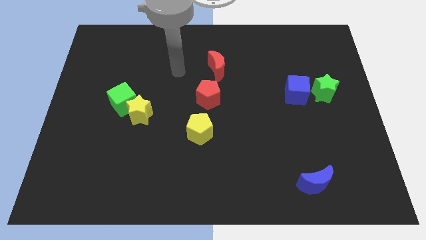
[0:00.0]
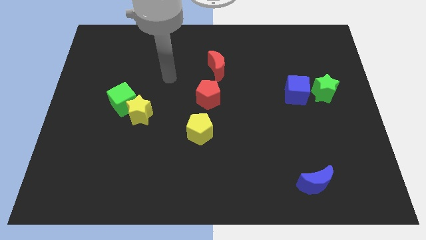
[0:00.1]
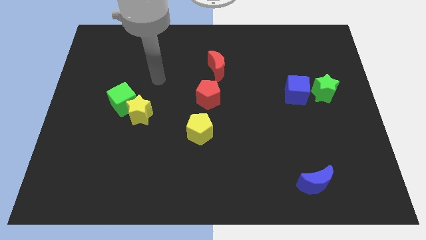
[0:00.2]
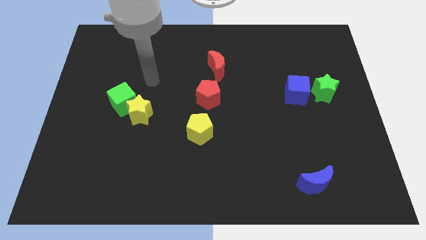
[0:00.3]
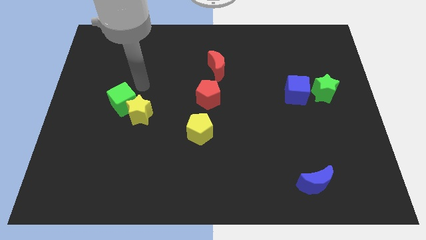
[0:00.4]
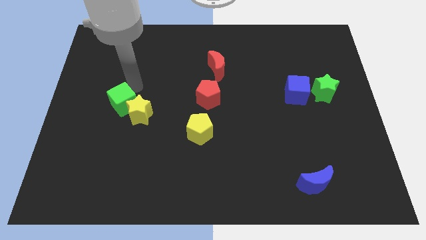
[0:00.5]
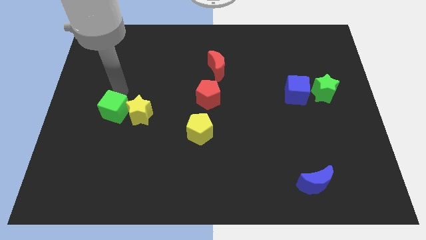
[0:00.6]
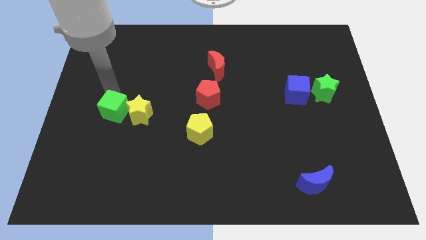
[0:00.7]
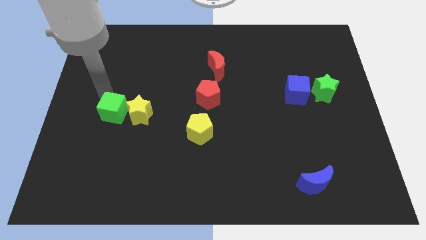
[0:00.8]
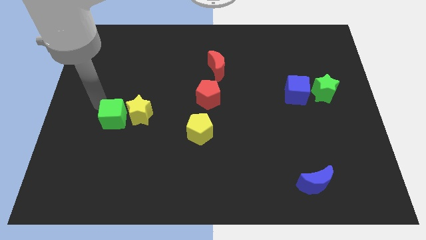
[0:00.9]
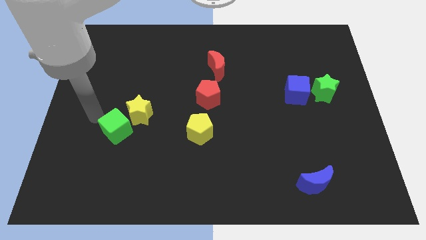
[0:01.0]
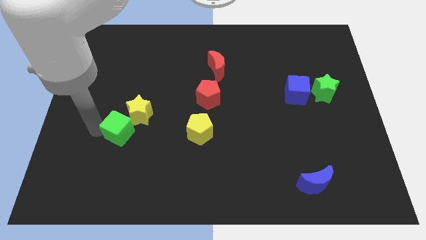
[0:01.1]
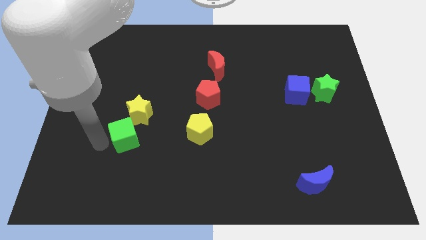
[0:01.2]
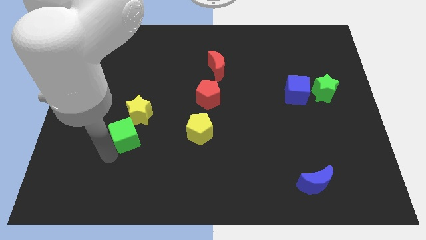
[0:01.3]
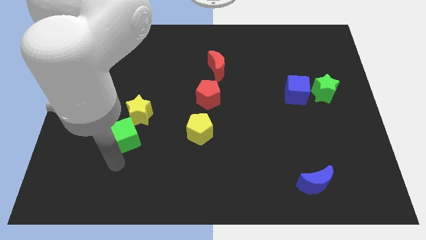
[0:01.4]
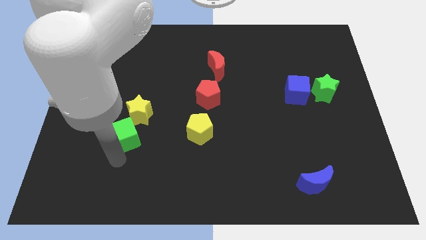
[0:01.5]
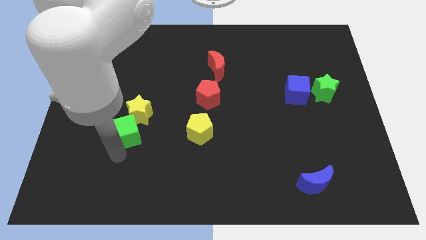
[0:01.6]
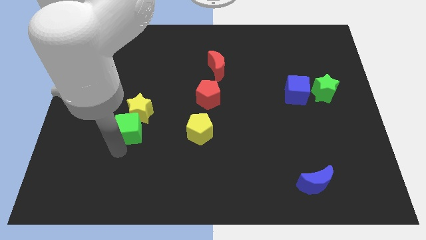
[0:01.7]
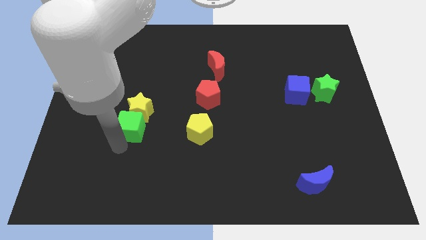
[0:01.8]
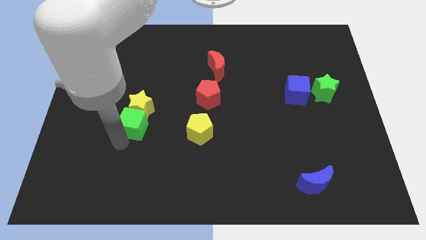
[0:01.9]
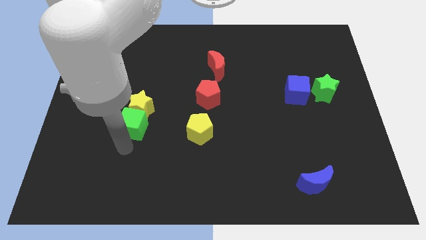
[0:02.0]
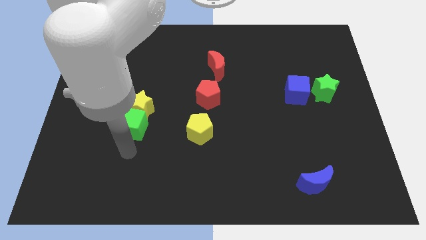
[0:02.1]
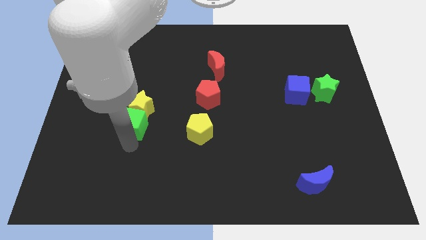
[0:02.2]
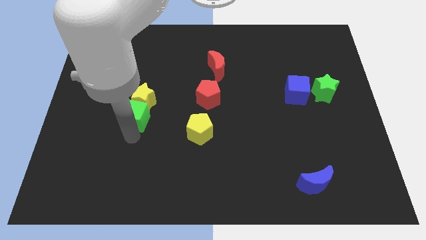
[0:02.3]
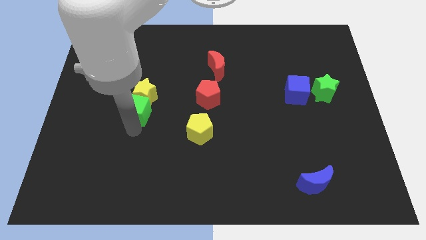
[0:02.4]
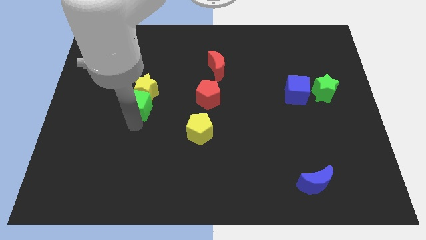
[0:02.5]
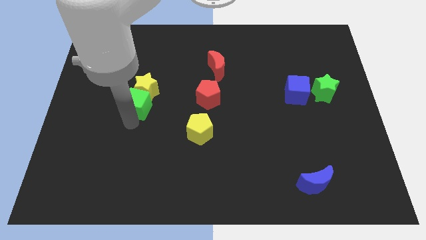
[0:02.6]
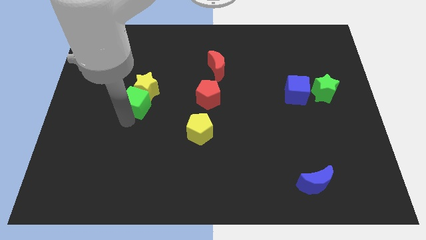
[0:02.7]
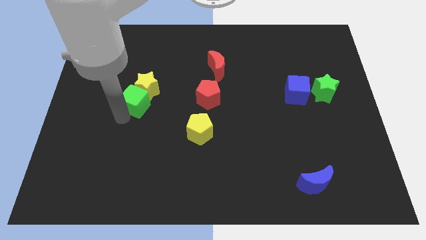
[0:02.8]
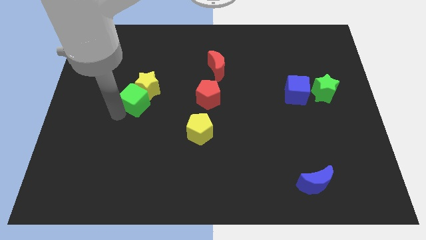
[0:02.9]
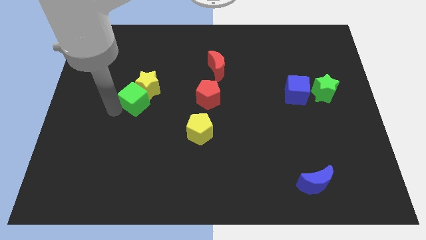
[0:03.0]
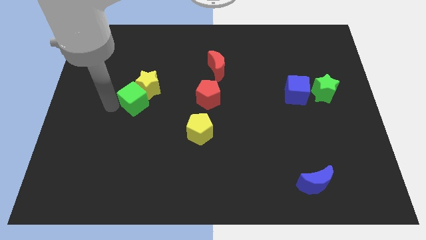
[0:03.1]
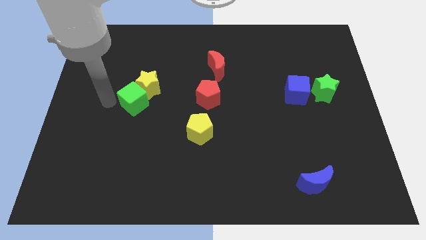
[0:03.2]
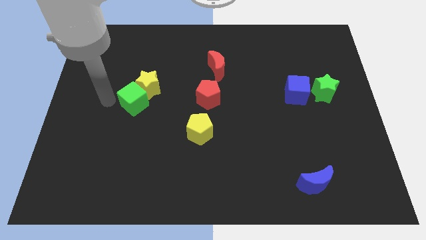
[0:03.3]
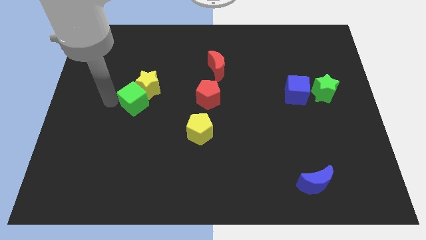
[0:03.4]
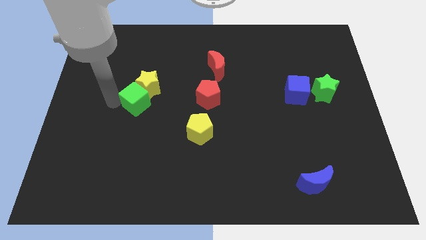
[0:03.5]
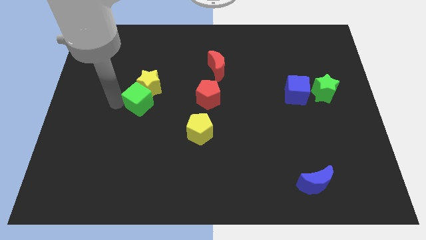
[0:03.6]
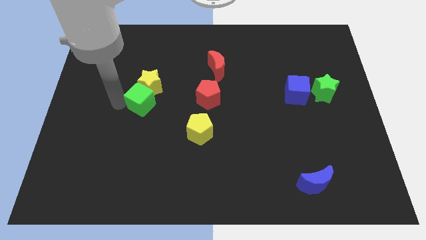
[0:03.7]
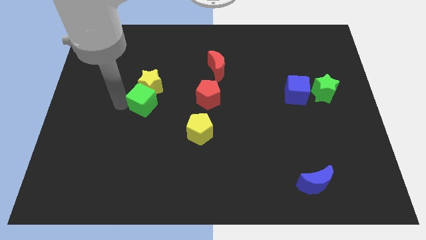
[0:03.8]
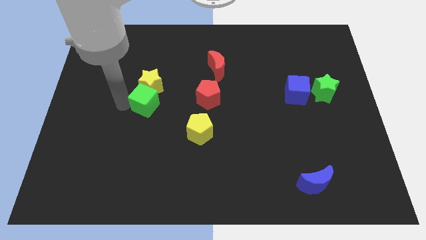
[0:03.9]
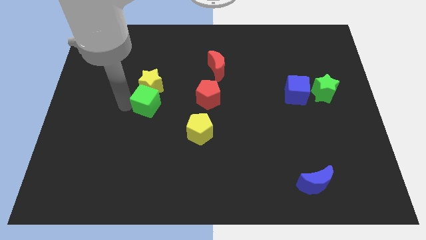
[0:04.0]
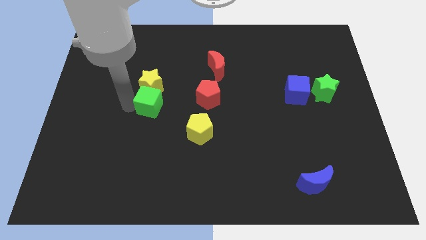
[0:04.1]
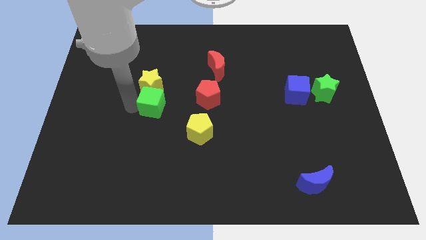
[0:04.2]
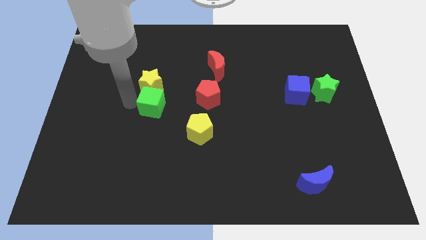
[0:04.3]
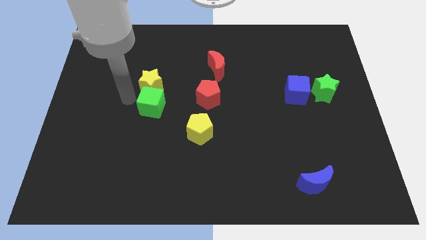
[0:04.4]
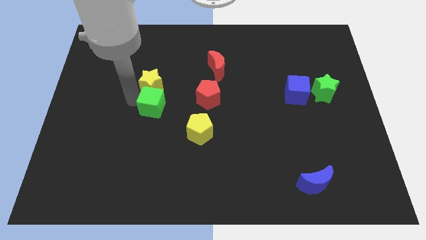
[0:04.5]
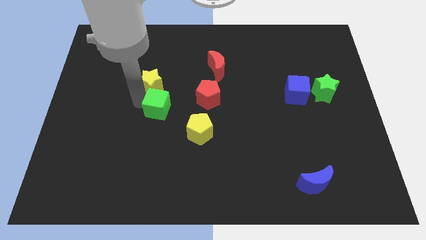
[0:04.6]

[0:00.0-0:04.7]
push the green cube diagonally up and to the left of the yellow pentagon

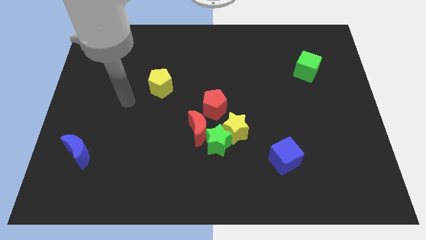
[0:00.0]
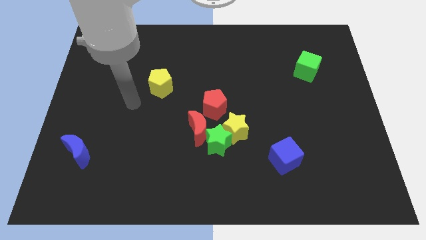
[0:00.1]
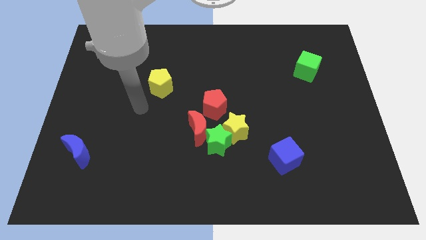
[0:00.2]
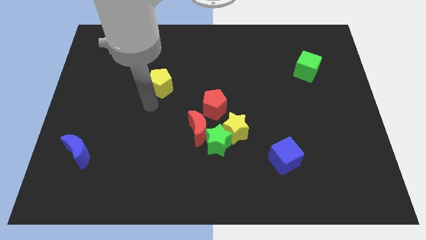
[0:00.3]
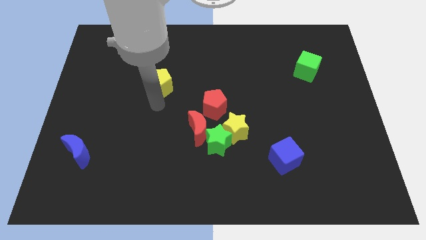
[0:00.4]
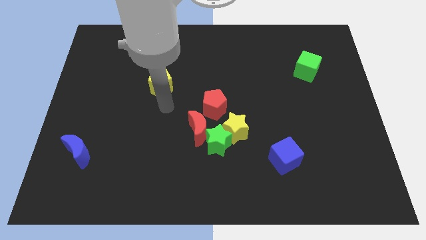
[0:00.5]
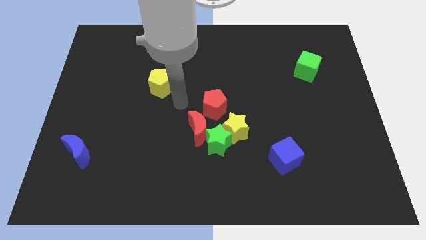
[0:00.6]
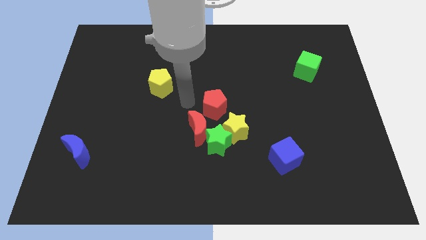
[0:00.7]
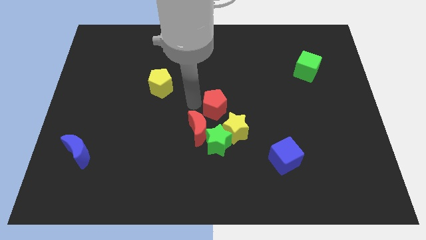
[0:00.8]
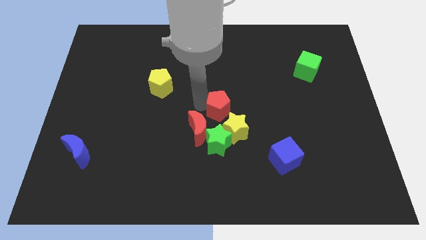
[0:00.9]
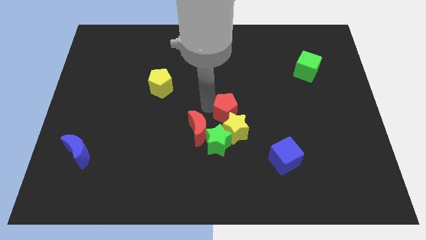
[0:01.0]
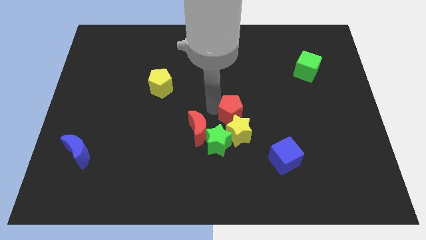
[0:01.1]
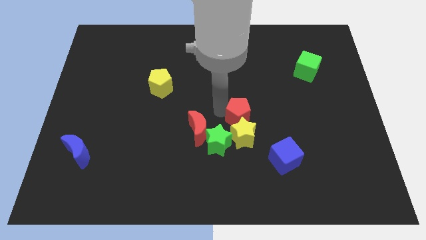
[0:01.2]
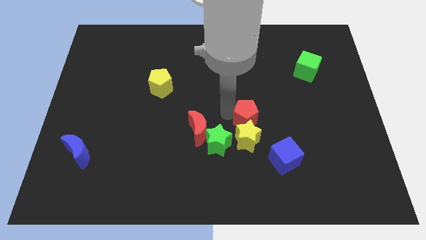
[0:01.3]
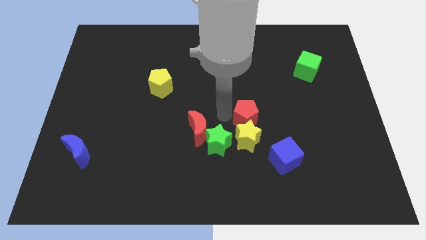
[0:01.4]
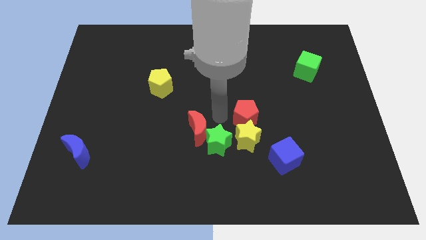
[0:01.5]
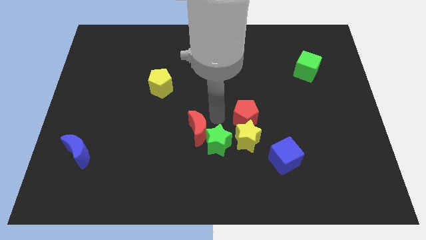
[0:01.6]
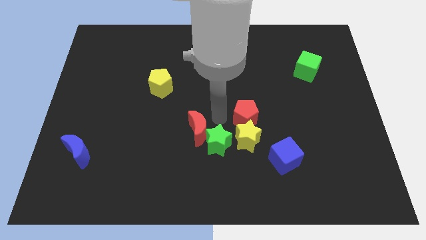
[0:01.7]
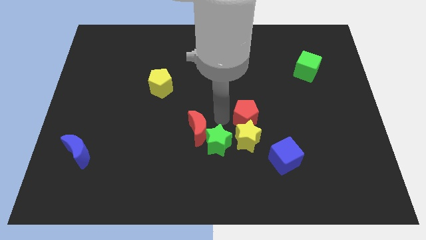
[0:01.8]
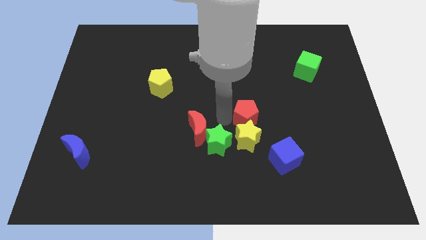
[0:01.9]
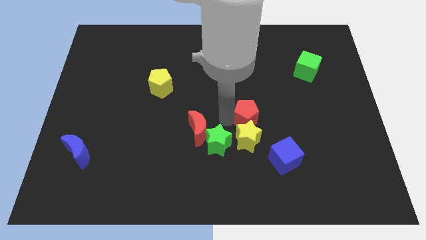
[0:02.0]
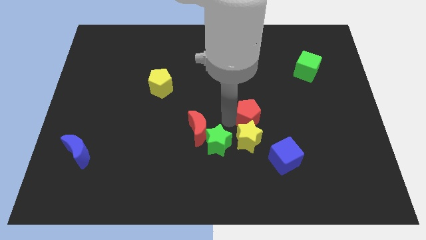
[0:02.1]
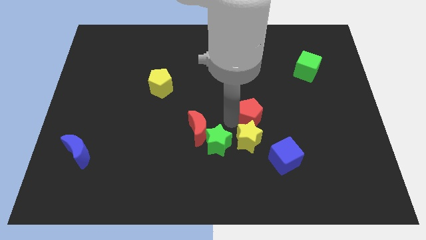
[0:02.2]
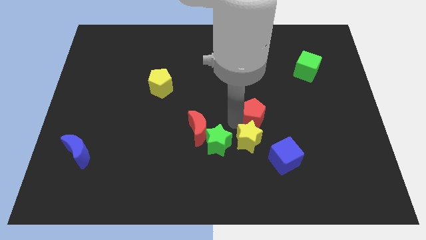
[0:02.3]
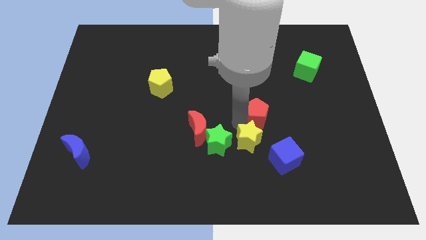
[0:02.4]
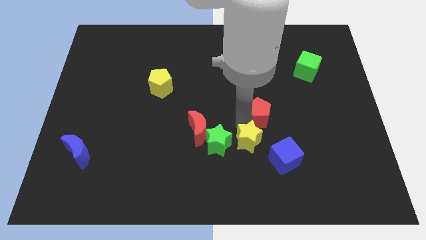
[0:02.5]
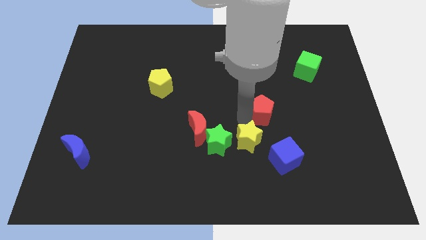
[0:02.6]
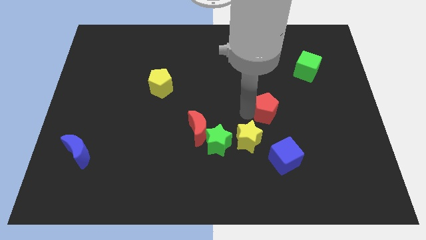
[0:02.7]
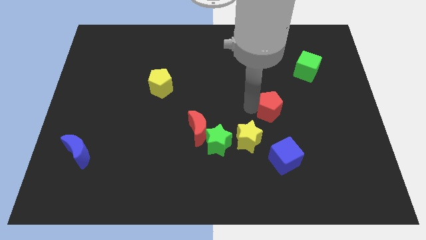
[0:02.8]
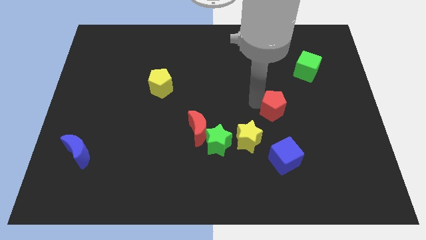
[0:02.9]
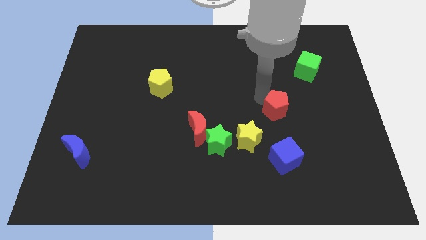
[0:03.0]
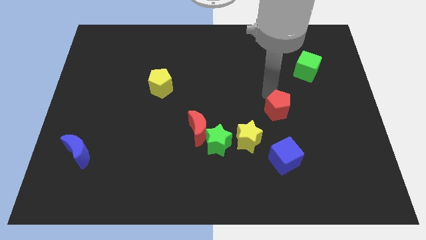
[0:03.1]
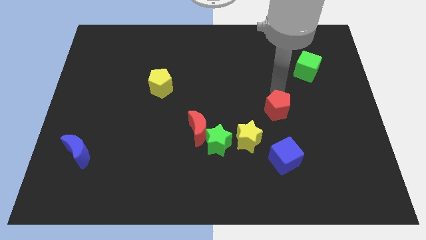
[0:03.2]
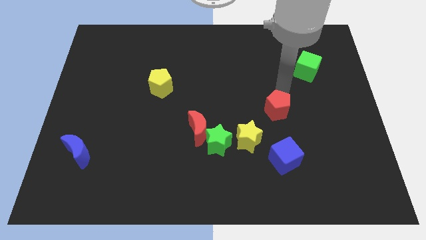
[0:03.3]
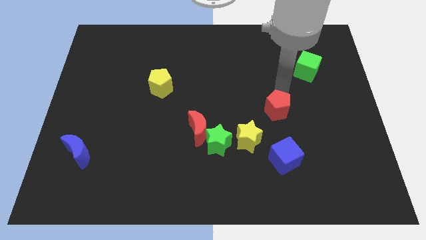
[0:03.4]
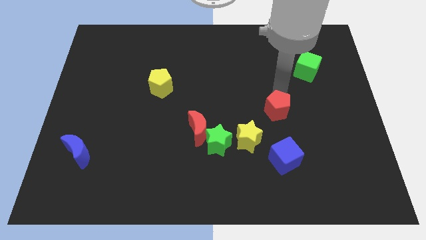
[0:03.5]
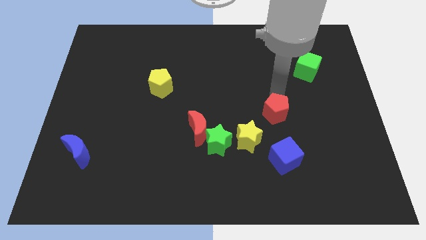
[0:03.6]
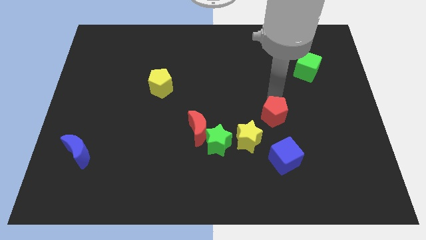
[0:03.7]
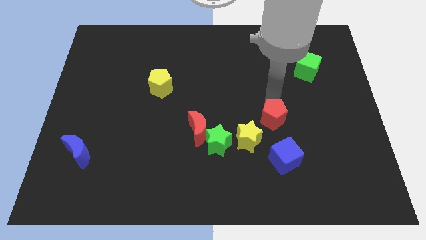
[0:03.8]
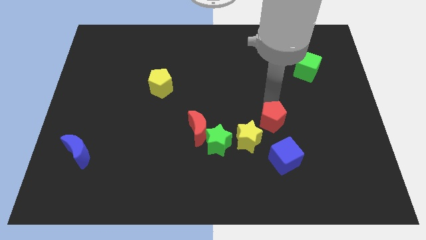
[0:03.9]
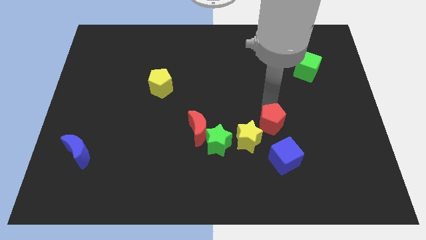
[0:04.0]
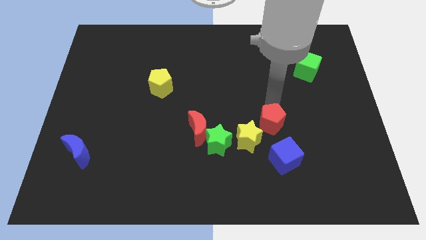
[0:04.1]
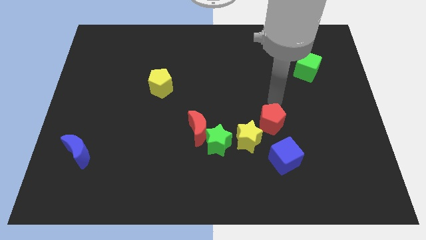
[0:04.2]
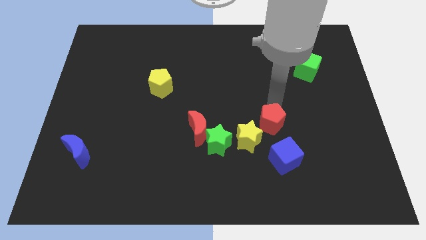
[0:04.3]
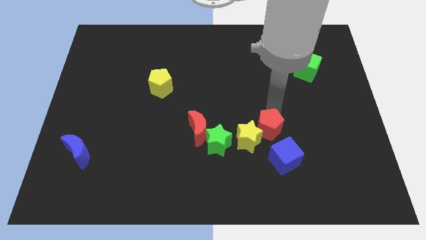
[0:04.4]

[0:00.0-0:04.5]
slide the red pentagon right of the green star
